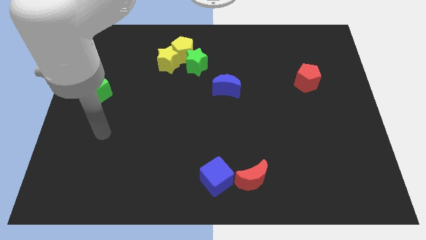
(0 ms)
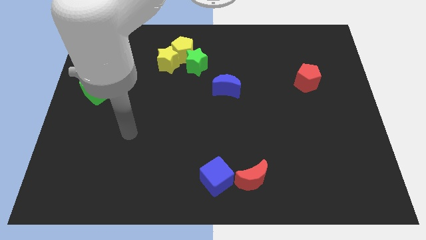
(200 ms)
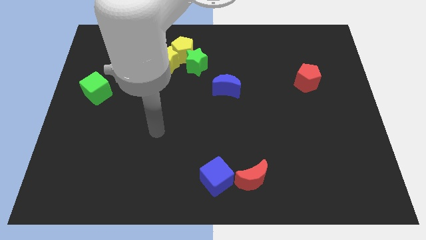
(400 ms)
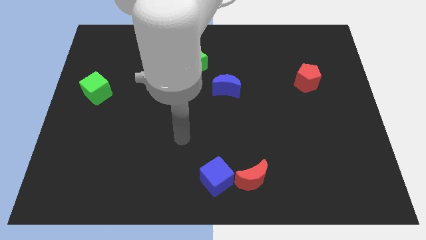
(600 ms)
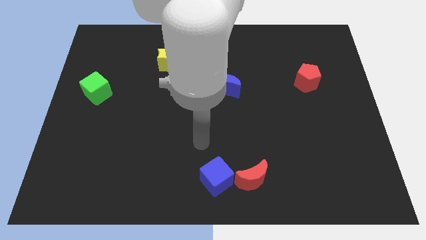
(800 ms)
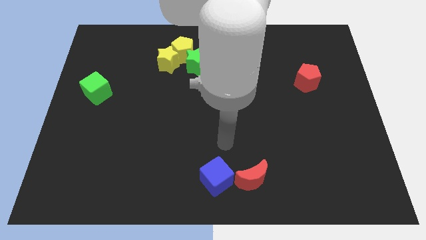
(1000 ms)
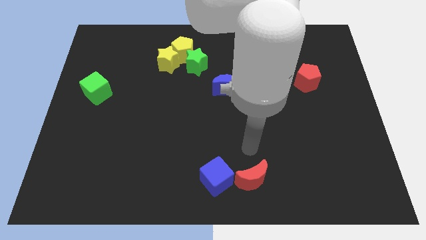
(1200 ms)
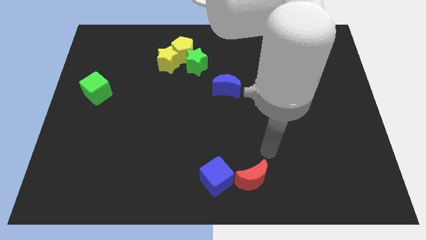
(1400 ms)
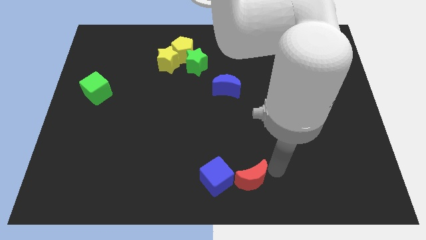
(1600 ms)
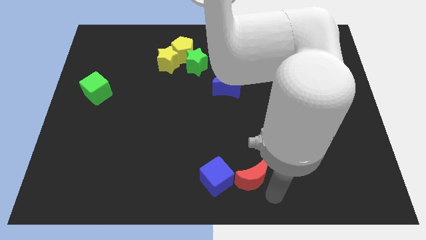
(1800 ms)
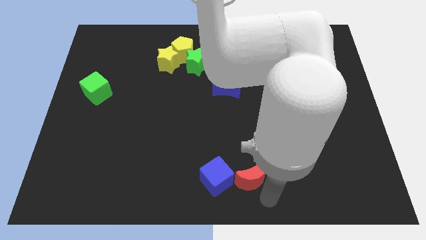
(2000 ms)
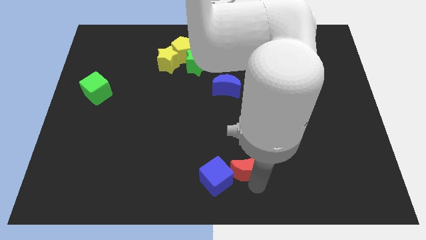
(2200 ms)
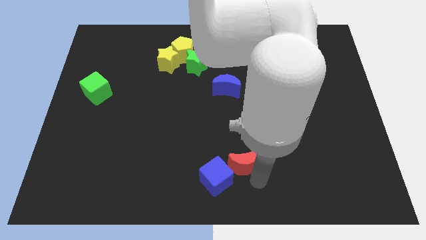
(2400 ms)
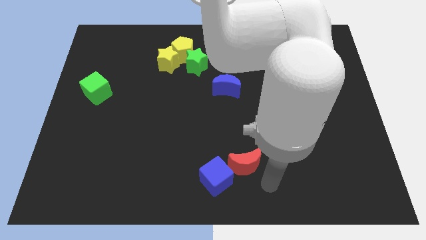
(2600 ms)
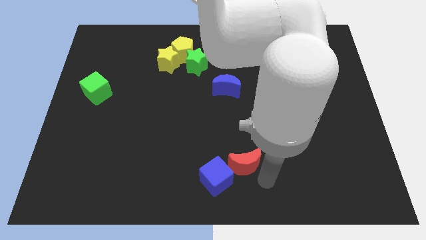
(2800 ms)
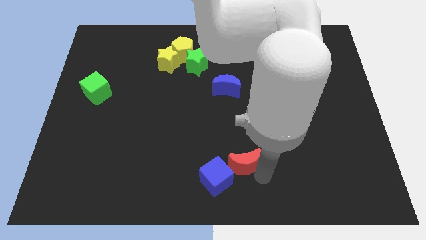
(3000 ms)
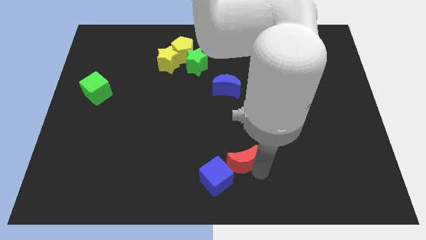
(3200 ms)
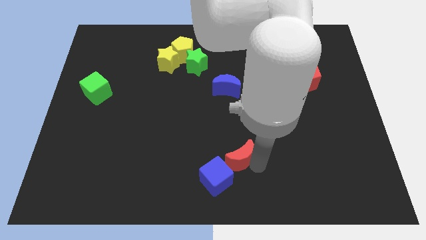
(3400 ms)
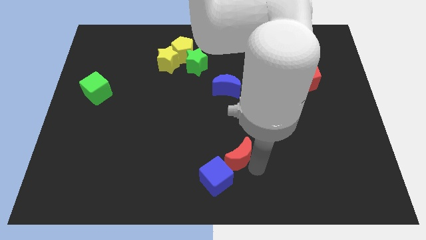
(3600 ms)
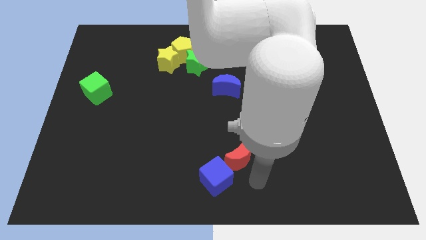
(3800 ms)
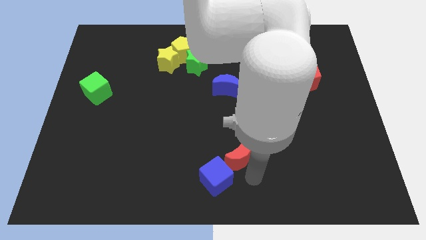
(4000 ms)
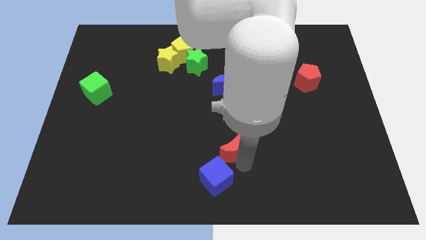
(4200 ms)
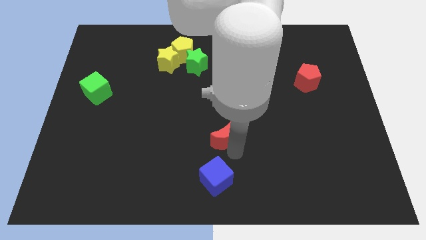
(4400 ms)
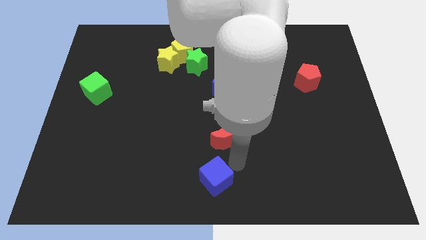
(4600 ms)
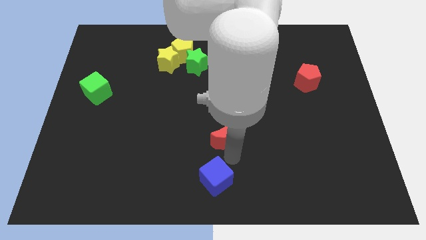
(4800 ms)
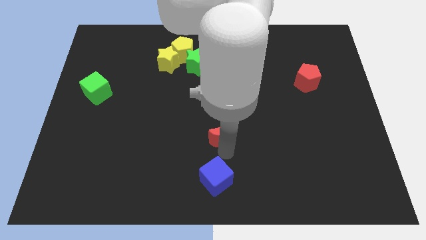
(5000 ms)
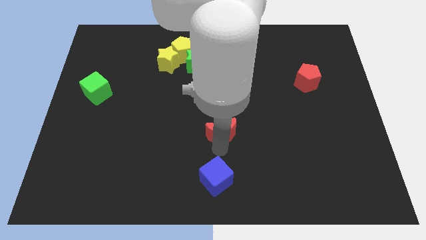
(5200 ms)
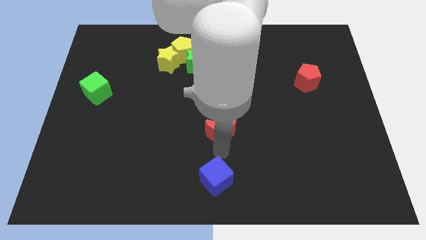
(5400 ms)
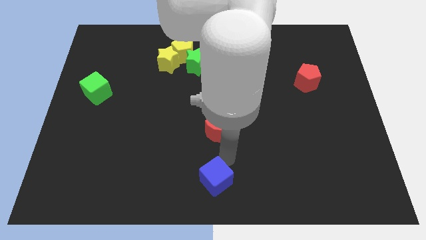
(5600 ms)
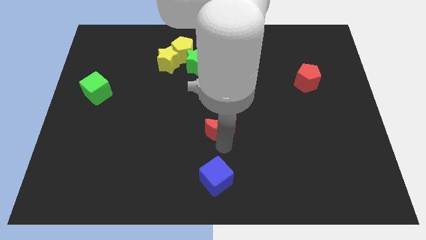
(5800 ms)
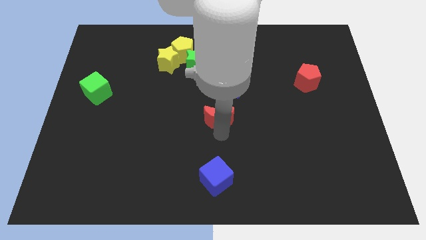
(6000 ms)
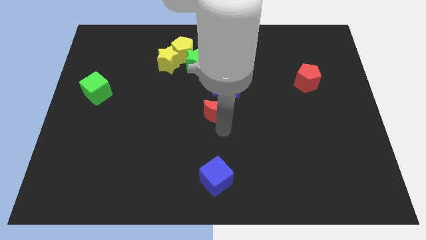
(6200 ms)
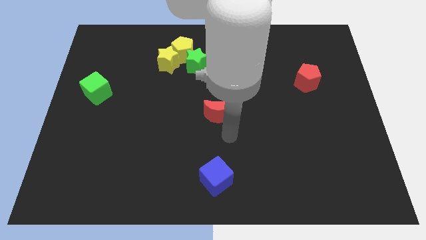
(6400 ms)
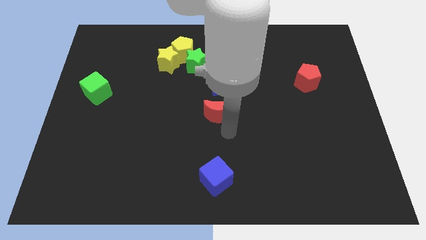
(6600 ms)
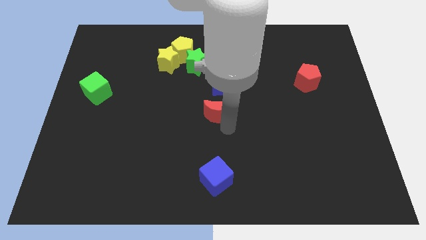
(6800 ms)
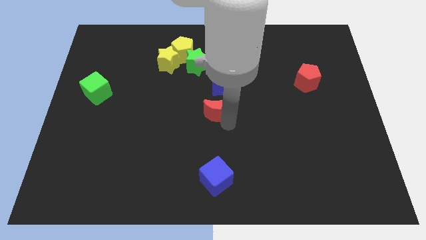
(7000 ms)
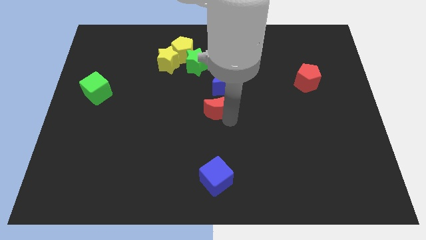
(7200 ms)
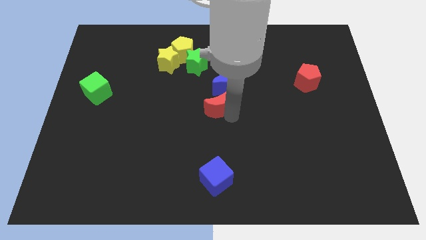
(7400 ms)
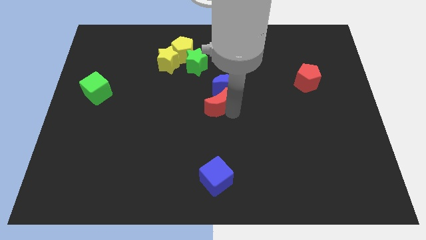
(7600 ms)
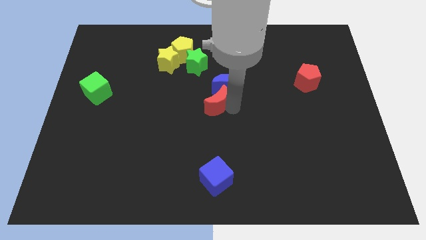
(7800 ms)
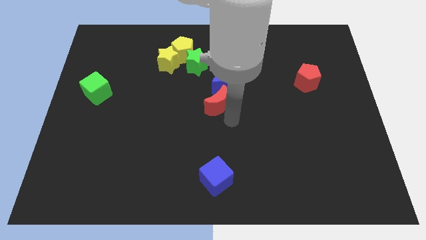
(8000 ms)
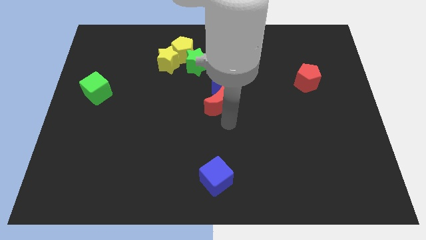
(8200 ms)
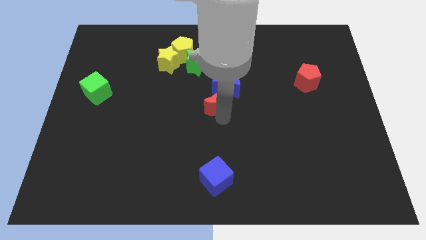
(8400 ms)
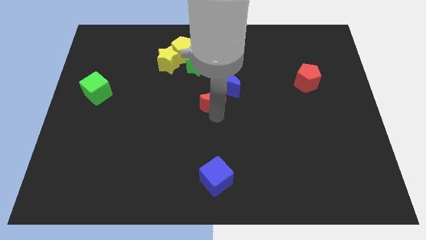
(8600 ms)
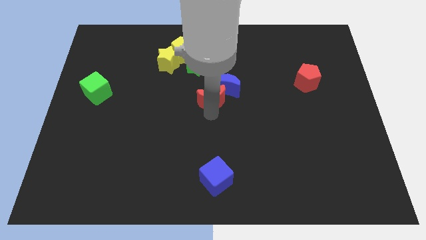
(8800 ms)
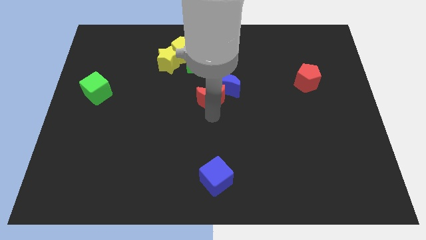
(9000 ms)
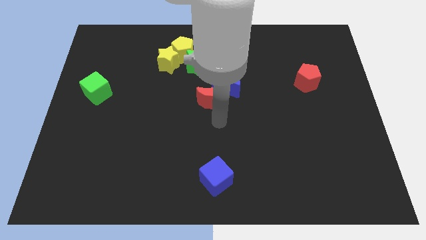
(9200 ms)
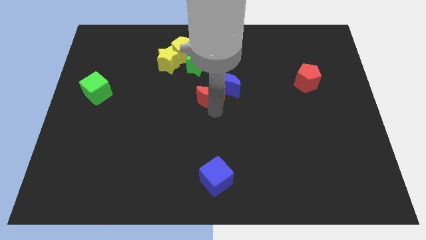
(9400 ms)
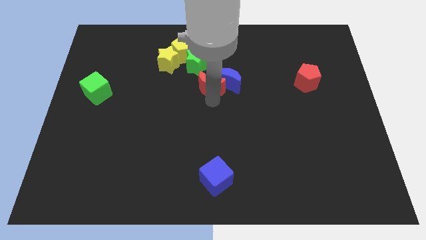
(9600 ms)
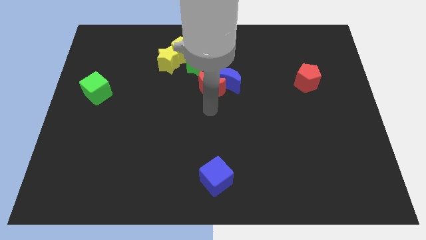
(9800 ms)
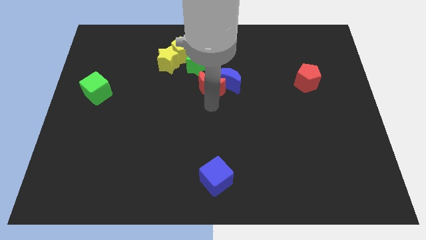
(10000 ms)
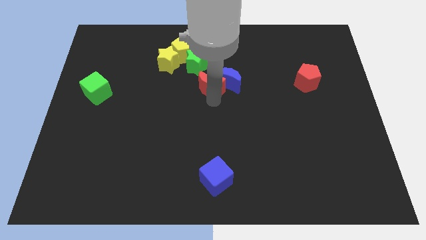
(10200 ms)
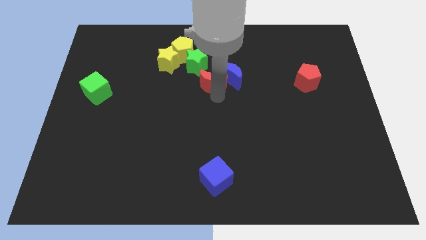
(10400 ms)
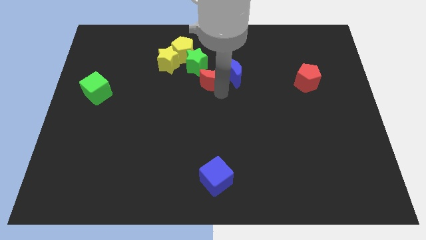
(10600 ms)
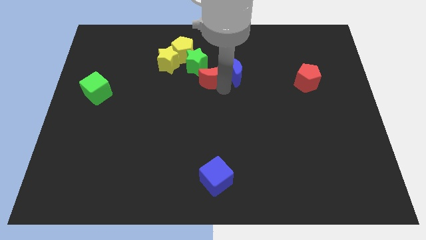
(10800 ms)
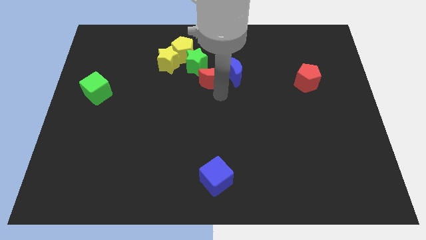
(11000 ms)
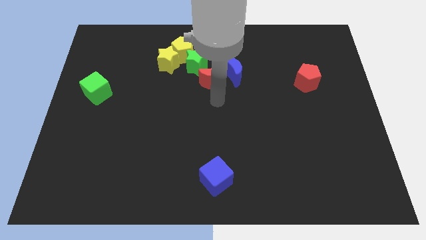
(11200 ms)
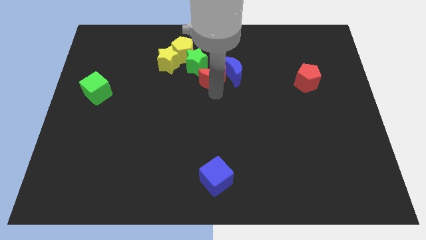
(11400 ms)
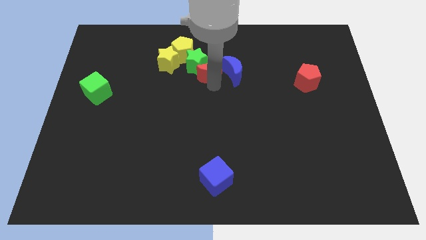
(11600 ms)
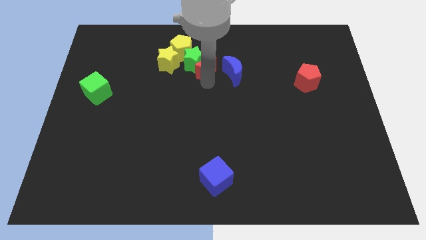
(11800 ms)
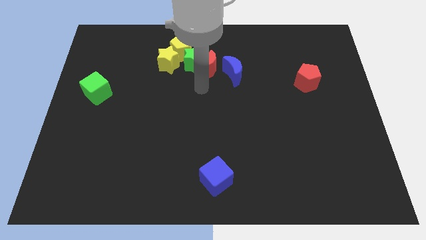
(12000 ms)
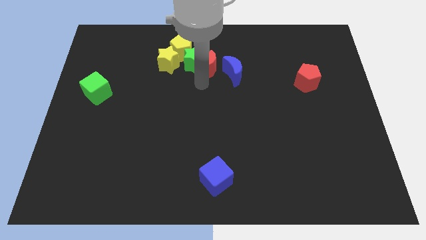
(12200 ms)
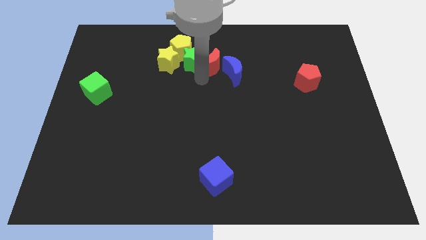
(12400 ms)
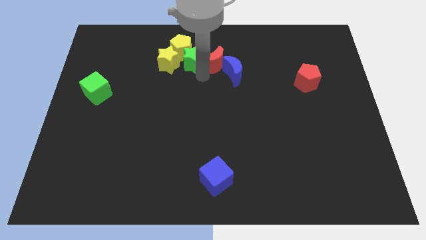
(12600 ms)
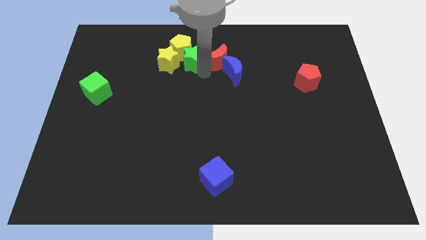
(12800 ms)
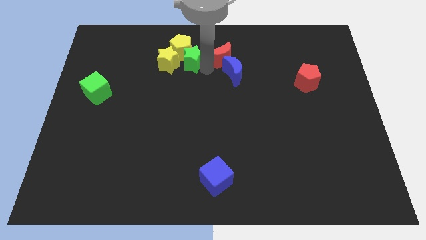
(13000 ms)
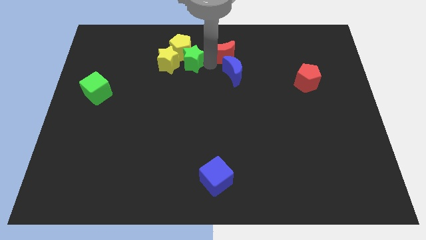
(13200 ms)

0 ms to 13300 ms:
move the red moon to the towards your base

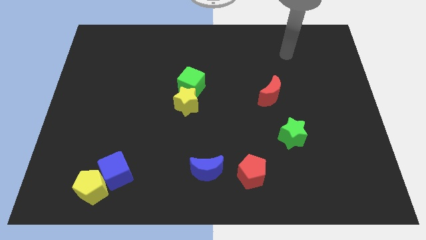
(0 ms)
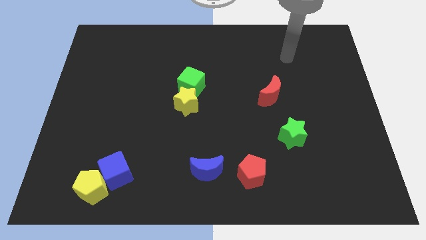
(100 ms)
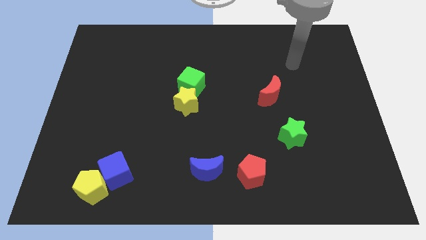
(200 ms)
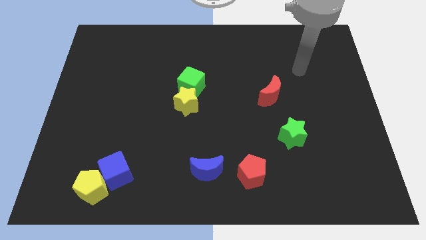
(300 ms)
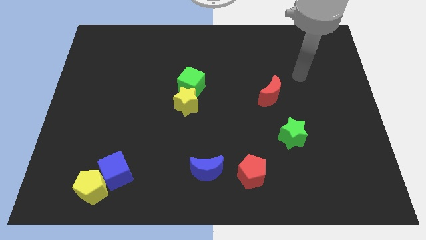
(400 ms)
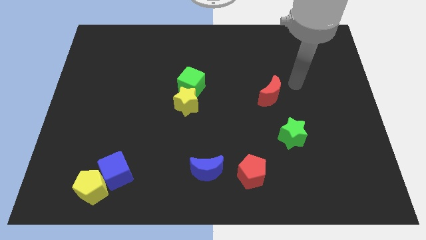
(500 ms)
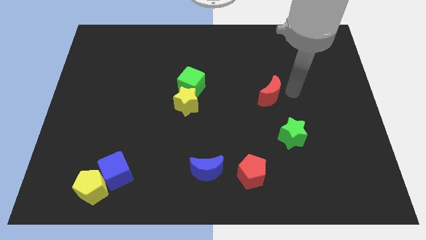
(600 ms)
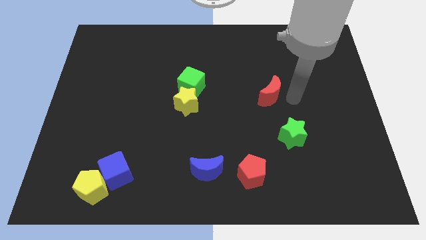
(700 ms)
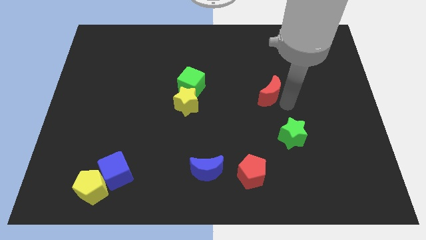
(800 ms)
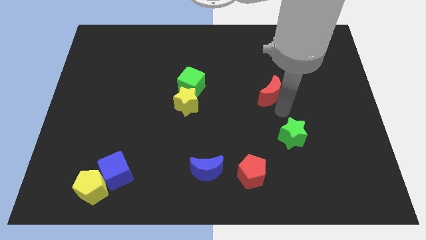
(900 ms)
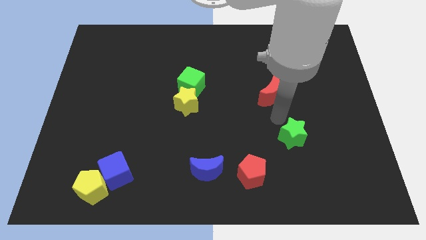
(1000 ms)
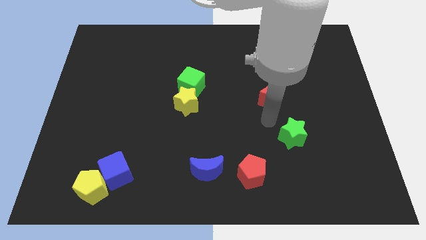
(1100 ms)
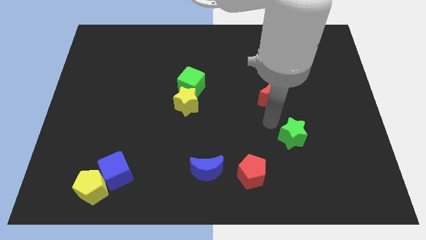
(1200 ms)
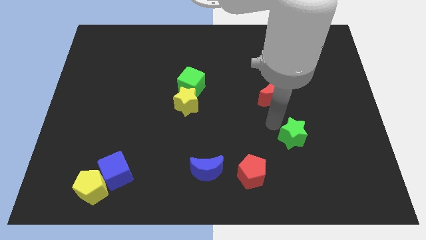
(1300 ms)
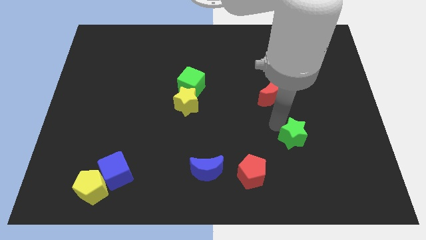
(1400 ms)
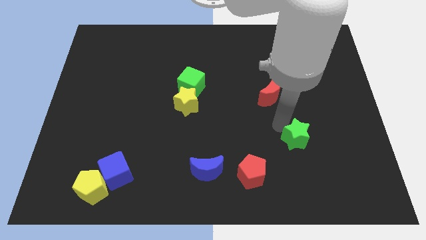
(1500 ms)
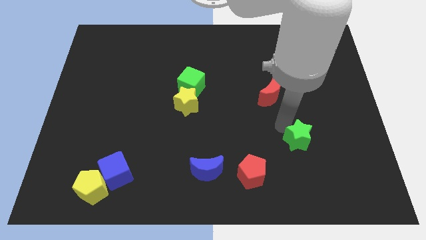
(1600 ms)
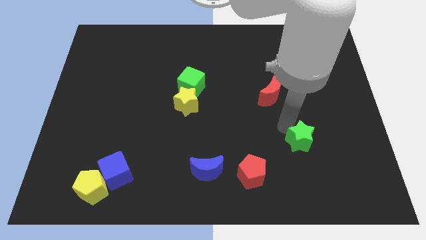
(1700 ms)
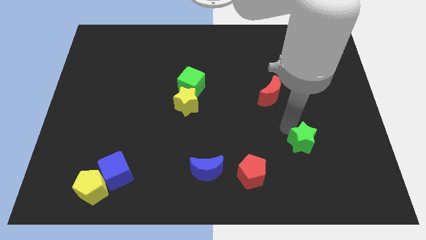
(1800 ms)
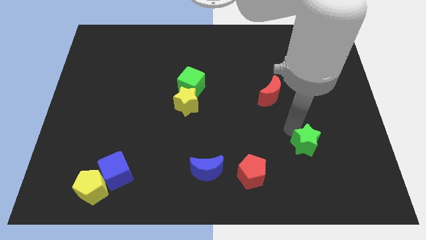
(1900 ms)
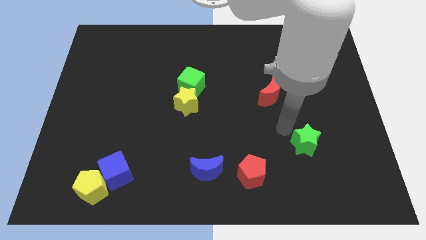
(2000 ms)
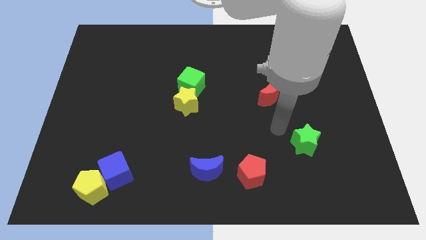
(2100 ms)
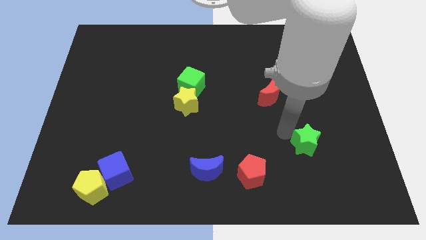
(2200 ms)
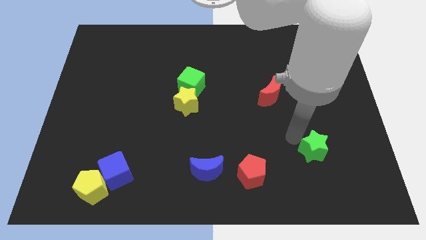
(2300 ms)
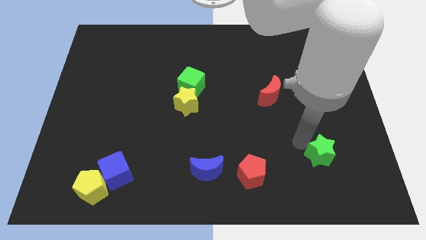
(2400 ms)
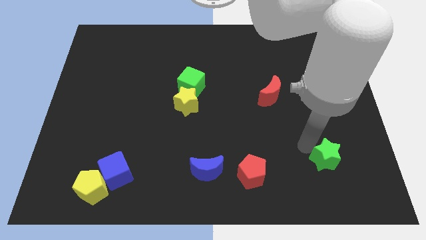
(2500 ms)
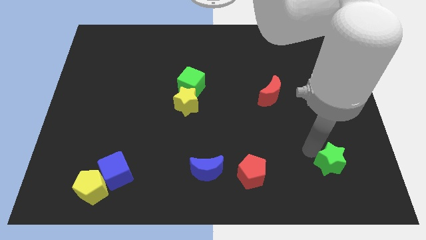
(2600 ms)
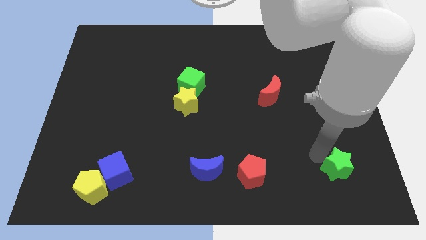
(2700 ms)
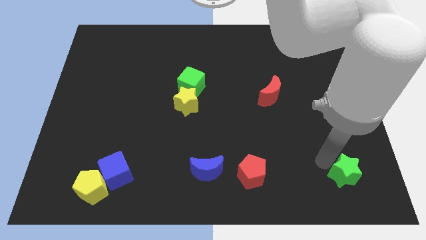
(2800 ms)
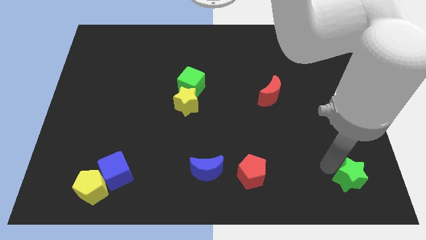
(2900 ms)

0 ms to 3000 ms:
slide the green star to the bottom right corner
